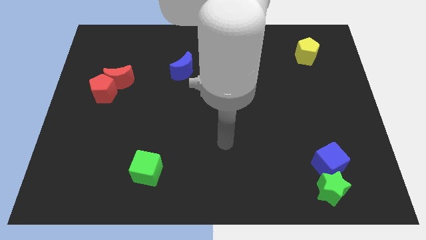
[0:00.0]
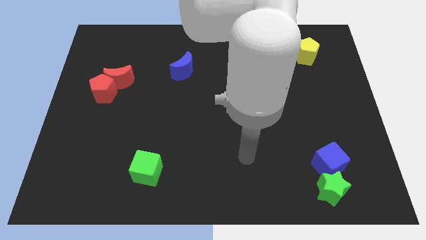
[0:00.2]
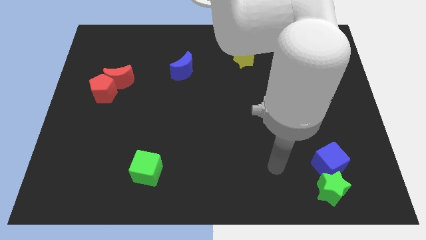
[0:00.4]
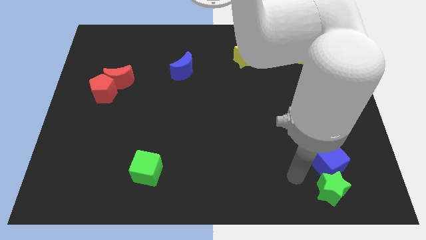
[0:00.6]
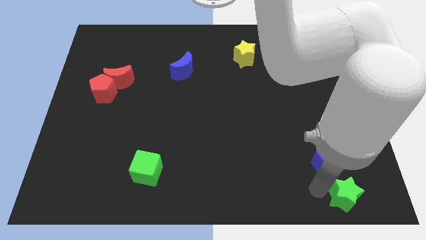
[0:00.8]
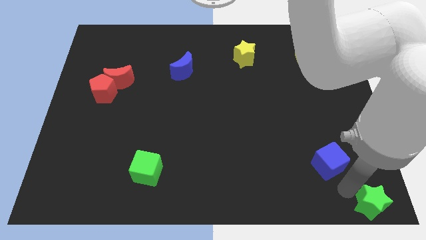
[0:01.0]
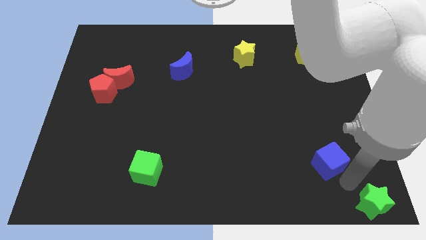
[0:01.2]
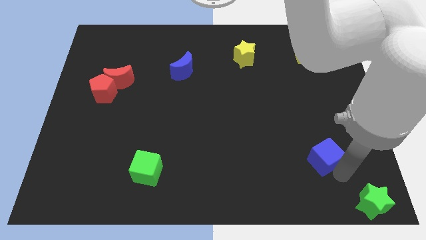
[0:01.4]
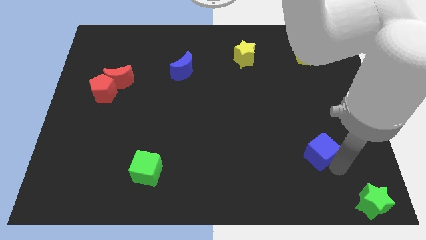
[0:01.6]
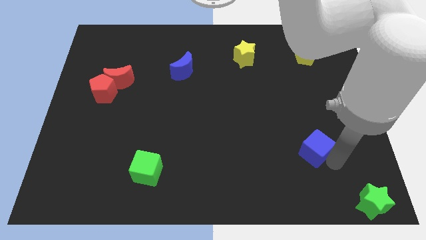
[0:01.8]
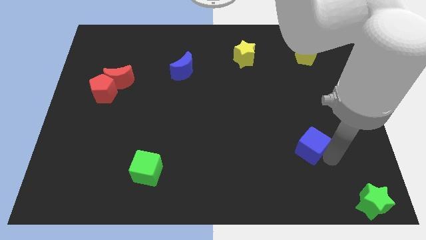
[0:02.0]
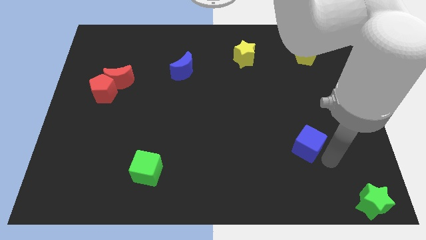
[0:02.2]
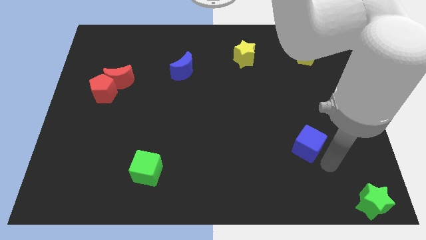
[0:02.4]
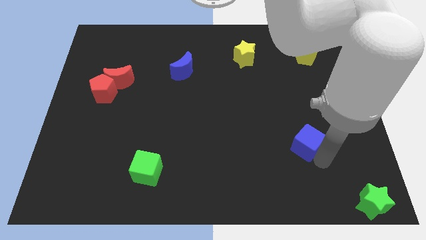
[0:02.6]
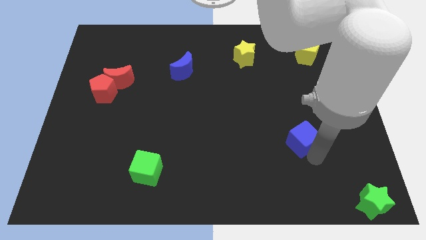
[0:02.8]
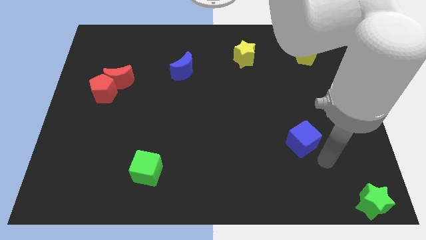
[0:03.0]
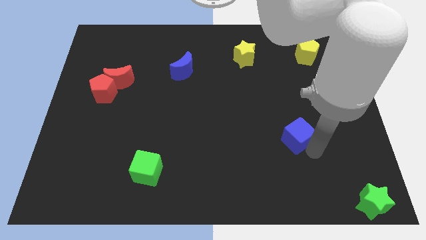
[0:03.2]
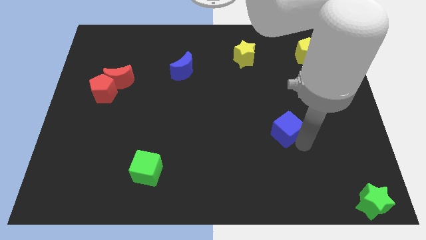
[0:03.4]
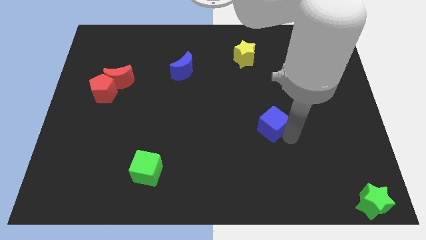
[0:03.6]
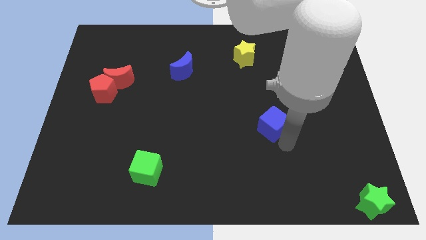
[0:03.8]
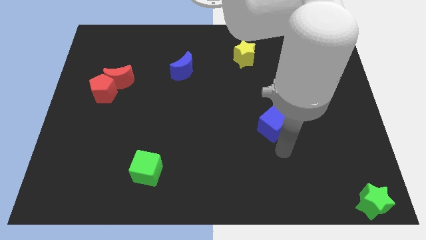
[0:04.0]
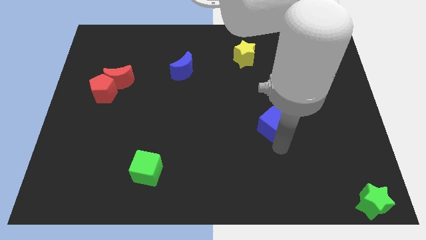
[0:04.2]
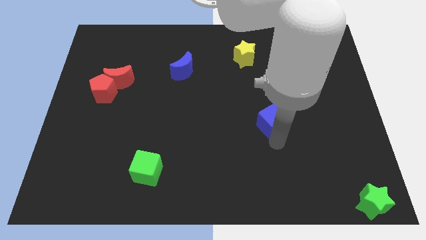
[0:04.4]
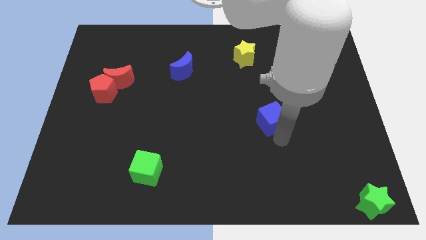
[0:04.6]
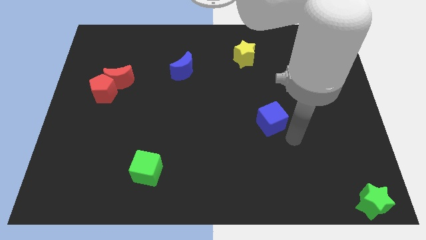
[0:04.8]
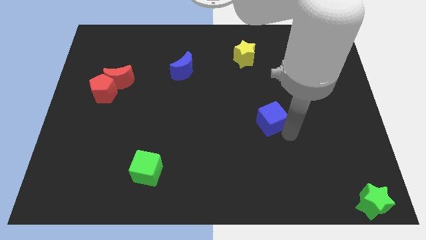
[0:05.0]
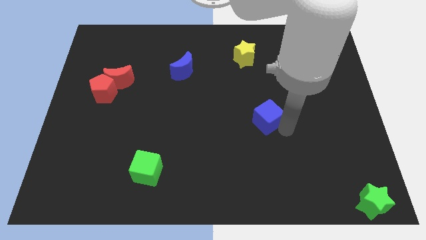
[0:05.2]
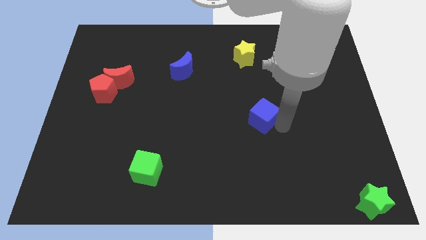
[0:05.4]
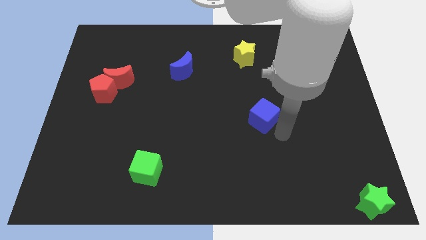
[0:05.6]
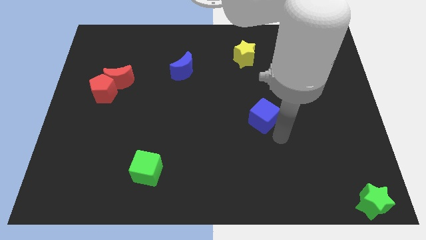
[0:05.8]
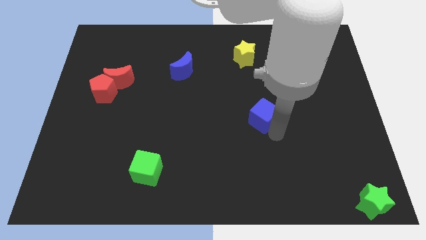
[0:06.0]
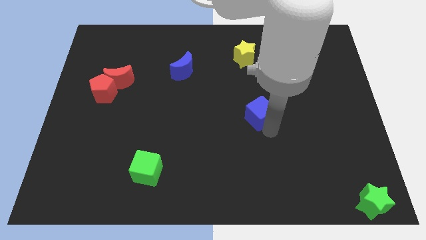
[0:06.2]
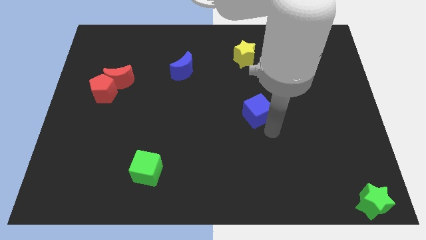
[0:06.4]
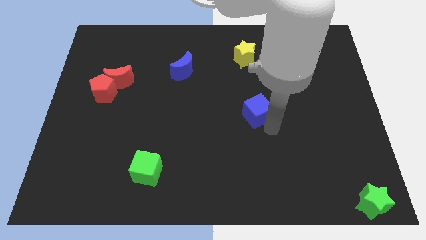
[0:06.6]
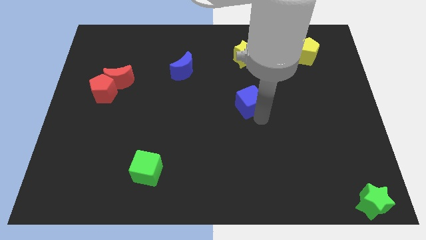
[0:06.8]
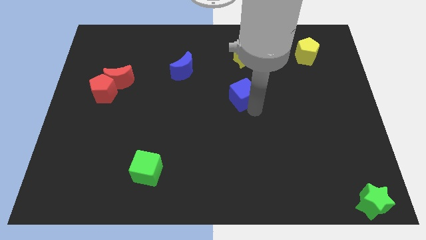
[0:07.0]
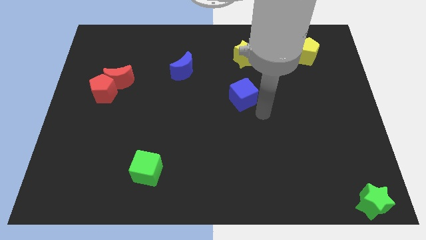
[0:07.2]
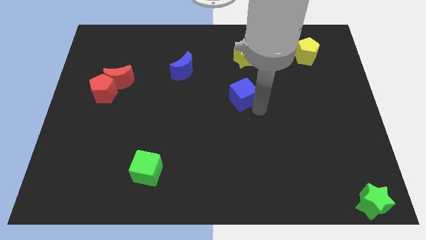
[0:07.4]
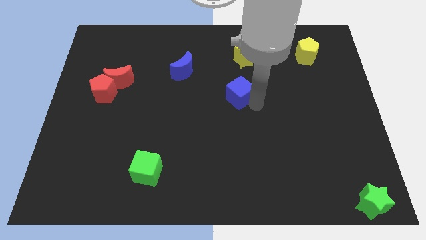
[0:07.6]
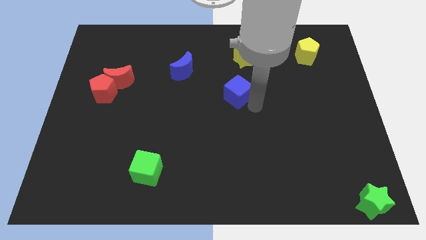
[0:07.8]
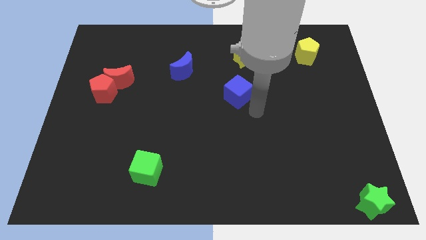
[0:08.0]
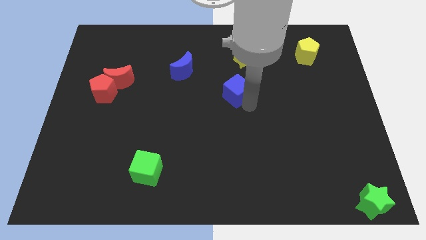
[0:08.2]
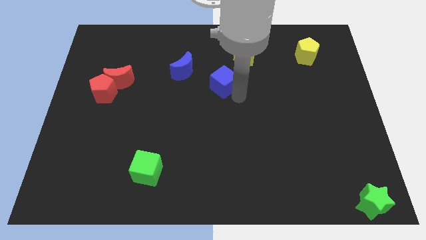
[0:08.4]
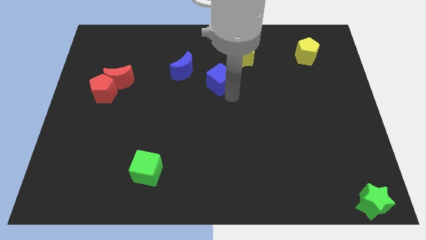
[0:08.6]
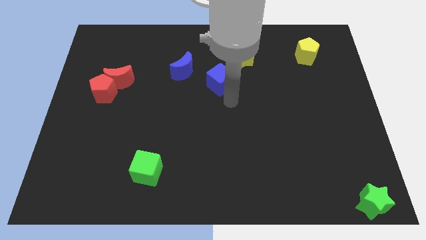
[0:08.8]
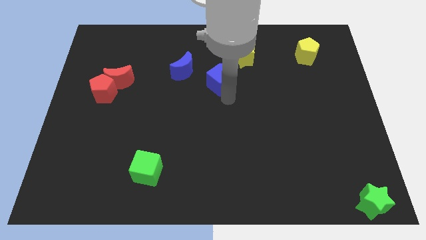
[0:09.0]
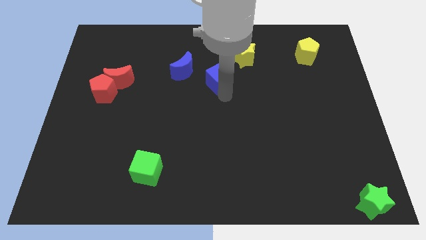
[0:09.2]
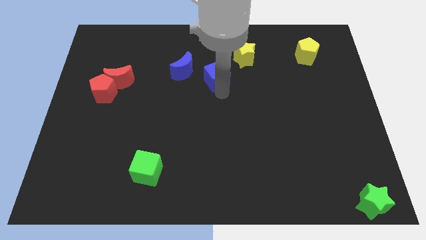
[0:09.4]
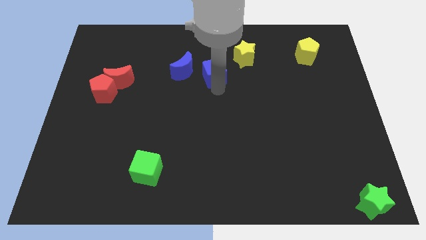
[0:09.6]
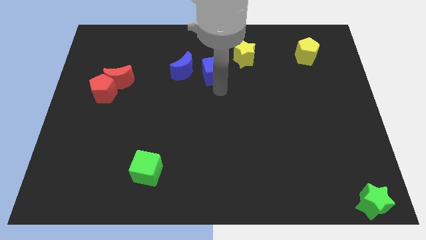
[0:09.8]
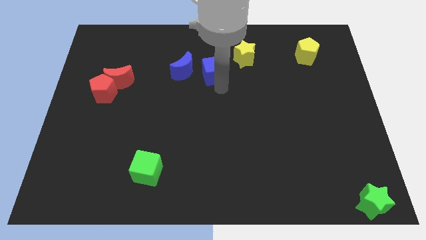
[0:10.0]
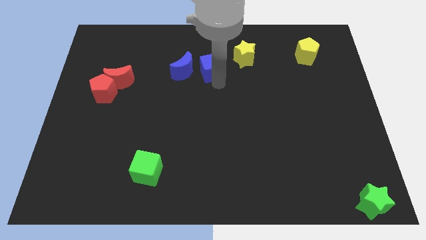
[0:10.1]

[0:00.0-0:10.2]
put the blue cube to the top right side of the blue moon

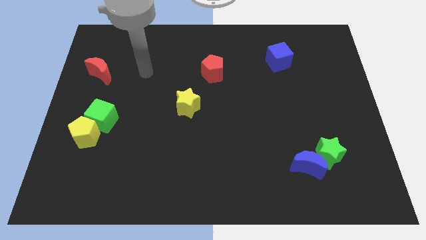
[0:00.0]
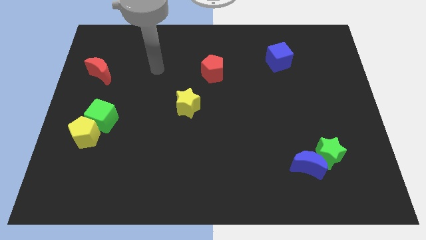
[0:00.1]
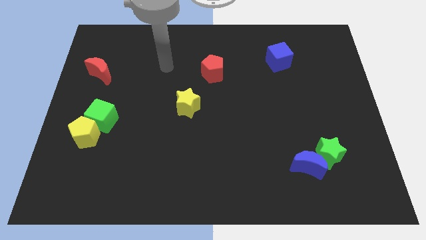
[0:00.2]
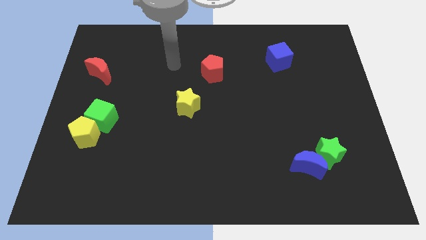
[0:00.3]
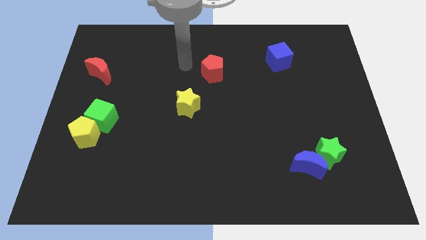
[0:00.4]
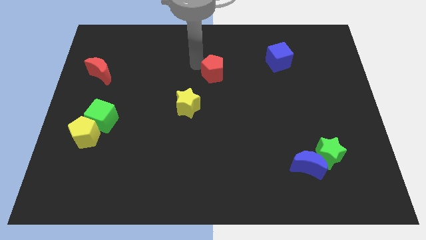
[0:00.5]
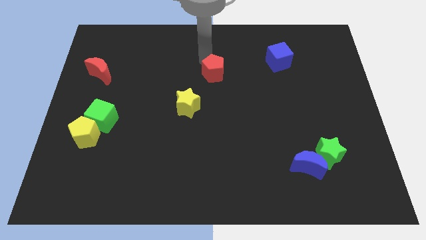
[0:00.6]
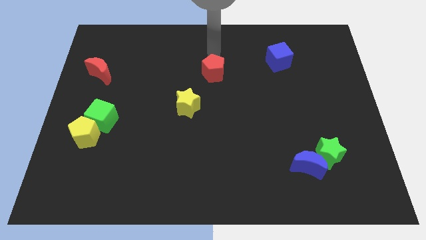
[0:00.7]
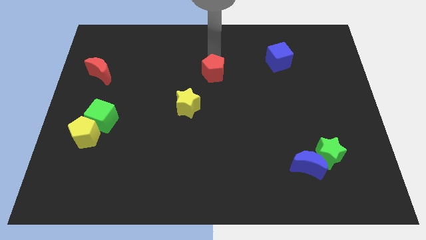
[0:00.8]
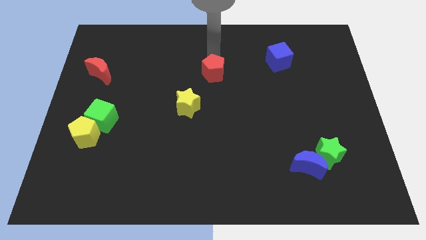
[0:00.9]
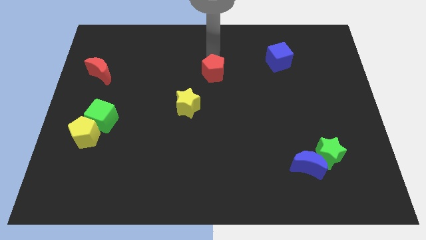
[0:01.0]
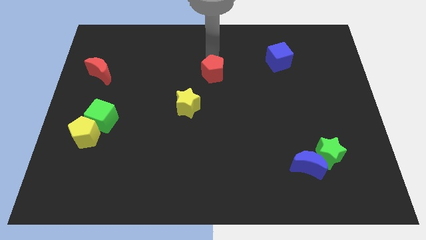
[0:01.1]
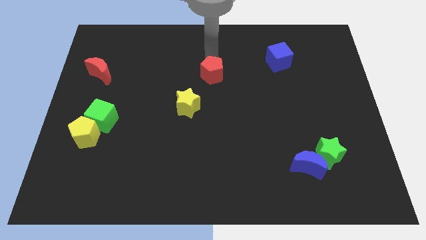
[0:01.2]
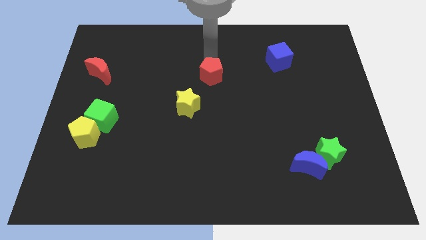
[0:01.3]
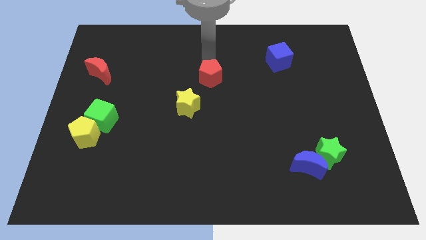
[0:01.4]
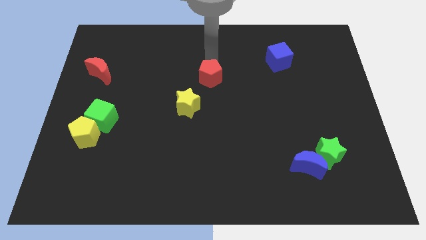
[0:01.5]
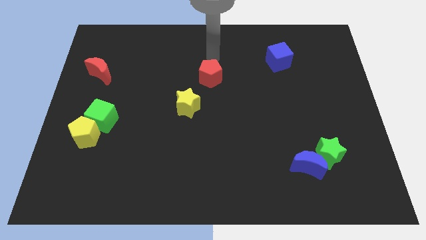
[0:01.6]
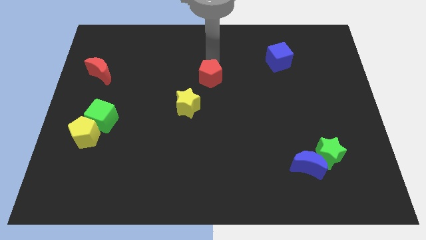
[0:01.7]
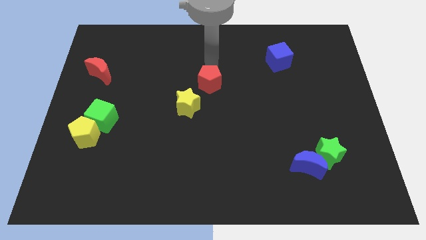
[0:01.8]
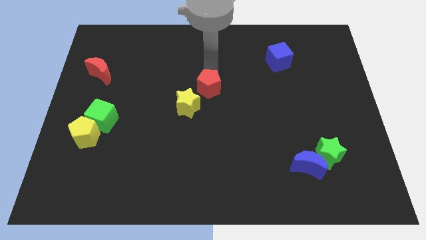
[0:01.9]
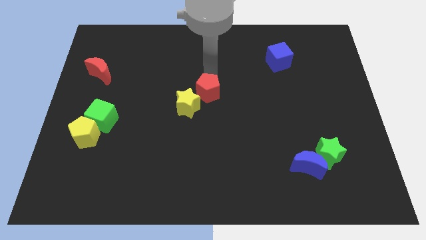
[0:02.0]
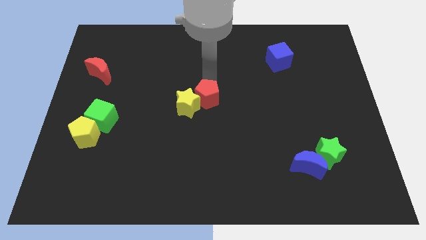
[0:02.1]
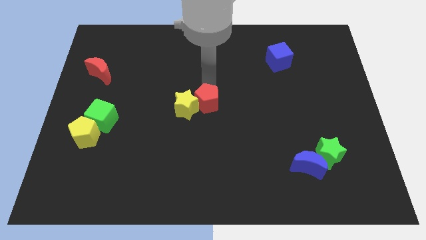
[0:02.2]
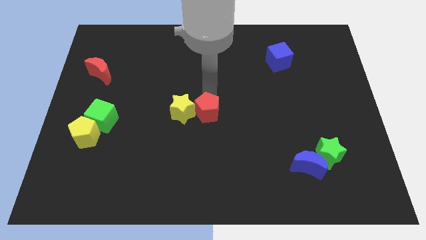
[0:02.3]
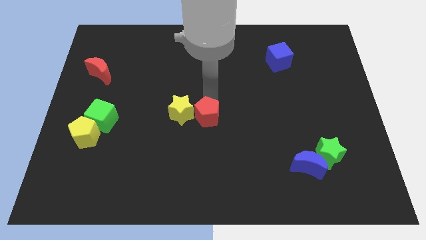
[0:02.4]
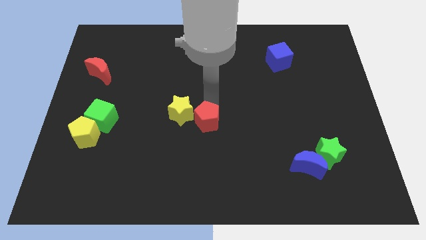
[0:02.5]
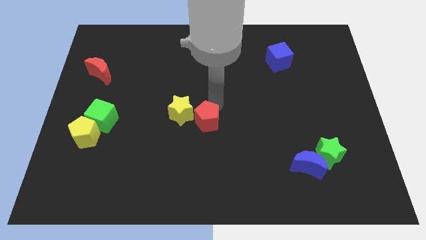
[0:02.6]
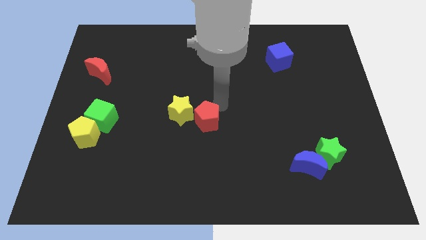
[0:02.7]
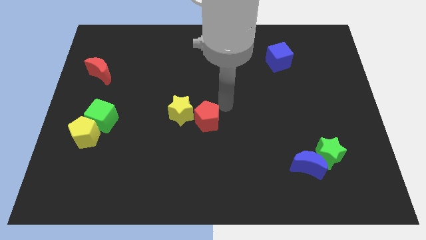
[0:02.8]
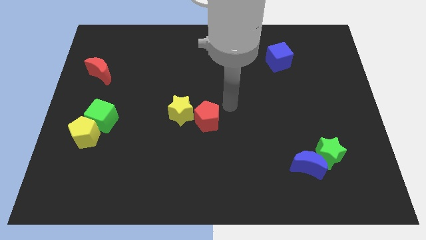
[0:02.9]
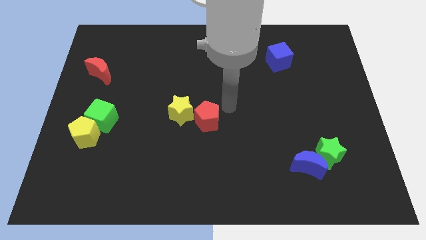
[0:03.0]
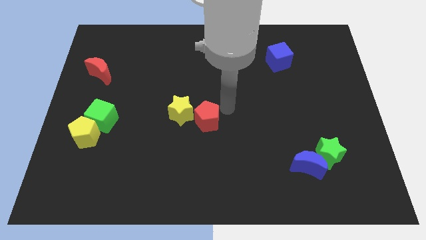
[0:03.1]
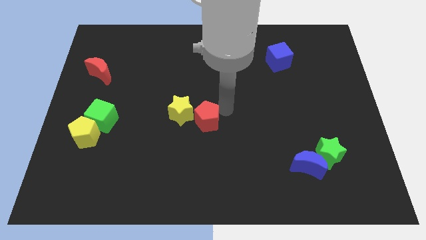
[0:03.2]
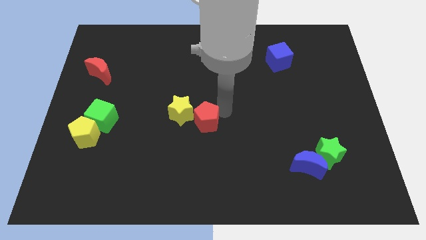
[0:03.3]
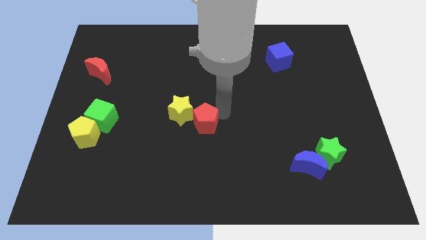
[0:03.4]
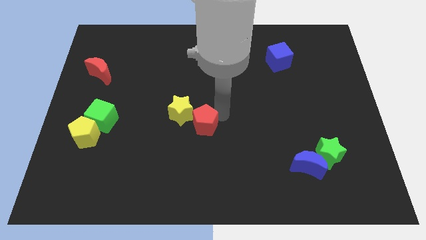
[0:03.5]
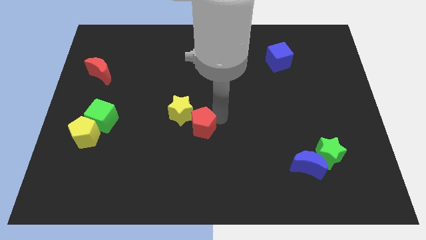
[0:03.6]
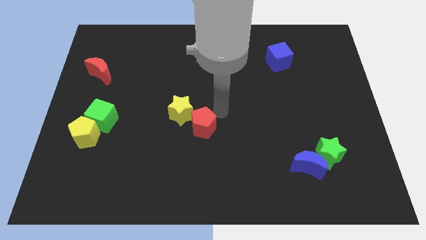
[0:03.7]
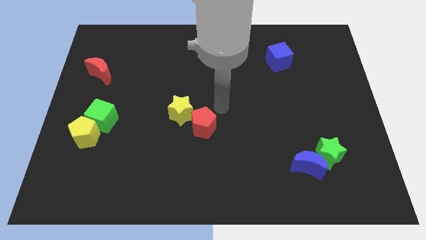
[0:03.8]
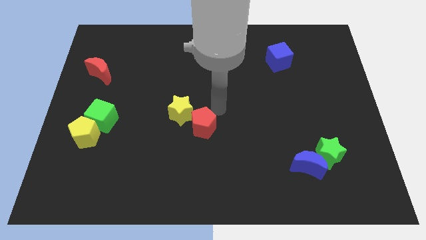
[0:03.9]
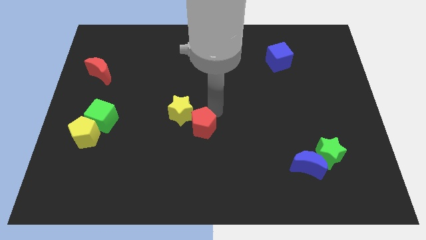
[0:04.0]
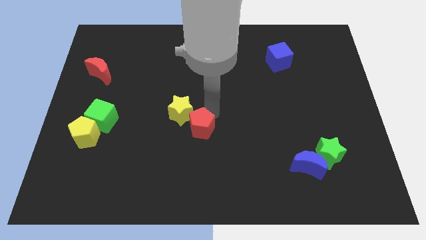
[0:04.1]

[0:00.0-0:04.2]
slide the red pentagon to the bottom of the yellow star
